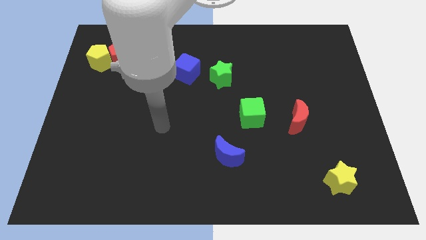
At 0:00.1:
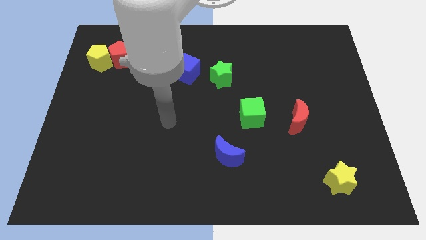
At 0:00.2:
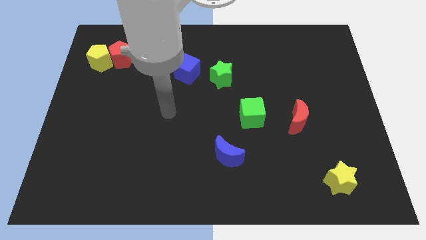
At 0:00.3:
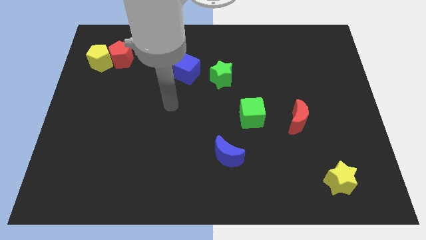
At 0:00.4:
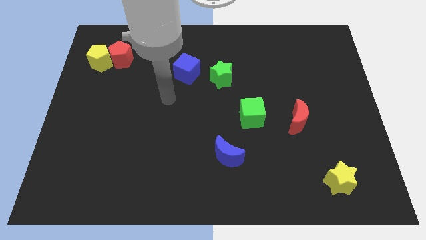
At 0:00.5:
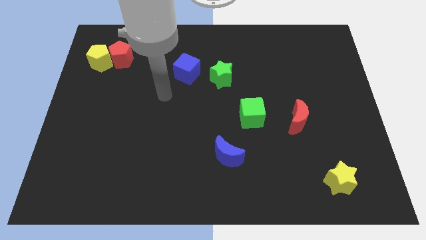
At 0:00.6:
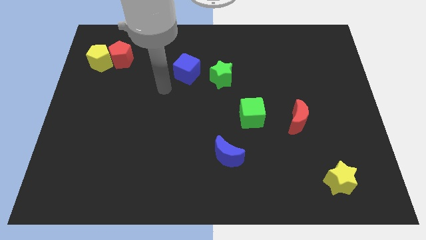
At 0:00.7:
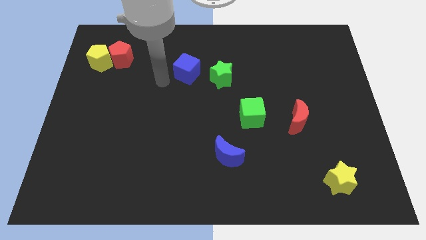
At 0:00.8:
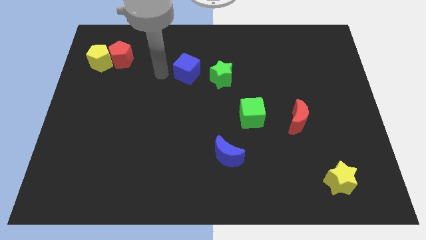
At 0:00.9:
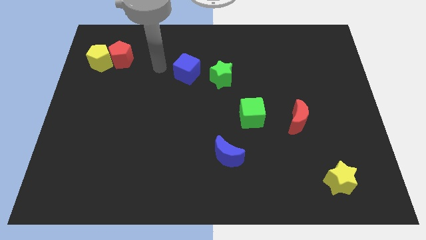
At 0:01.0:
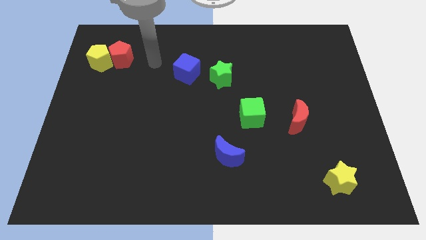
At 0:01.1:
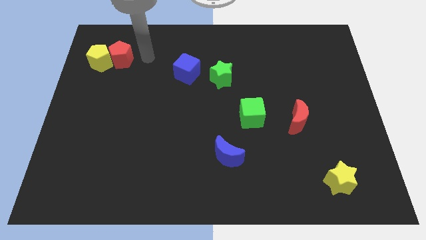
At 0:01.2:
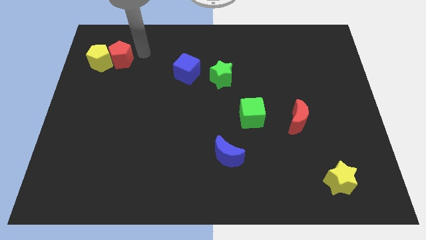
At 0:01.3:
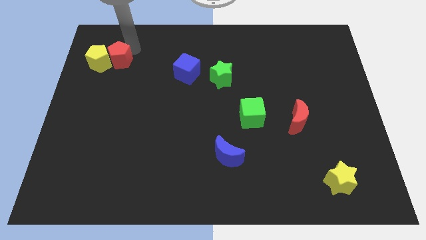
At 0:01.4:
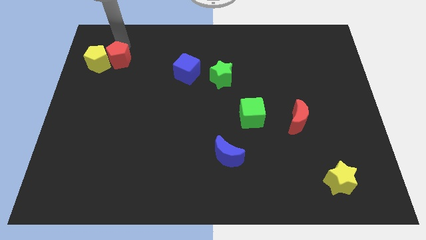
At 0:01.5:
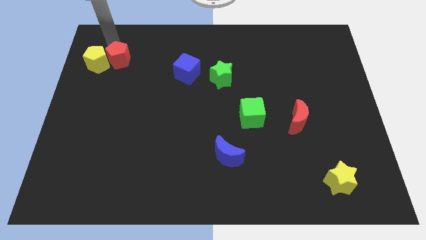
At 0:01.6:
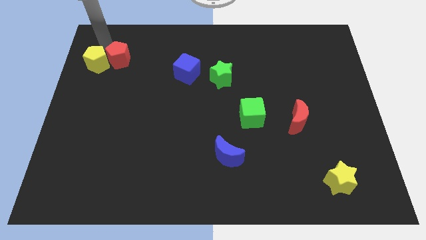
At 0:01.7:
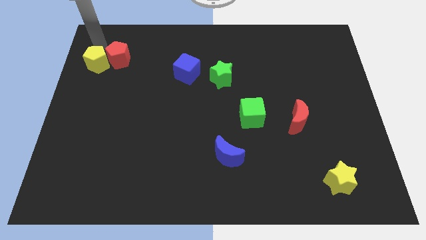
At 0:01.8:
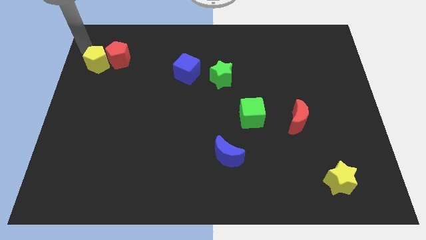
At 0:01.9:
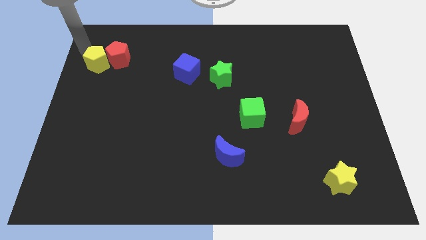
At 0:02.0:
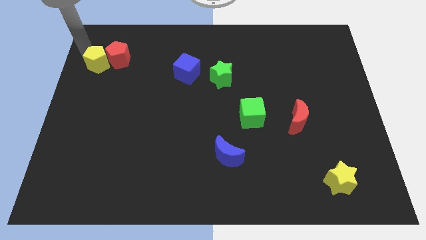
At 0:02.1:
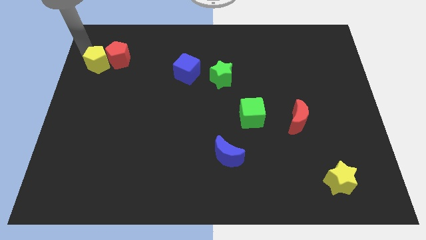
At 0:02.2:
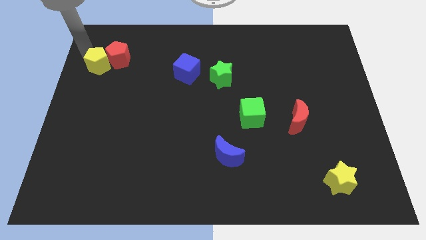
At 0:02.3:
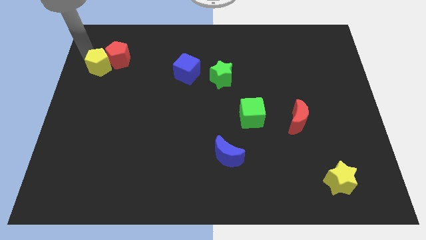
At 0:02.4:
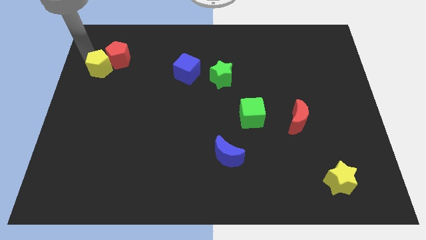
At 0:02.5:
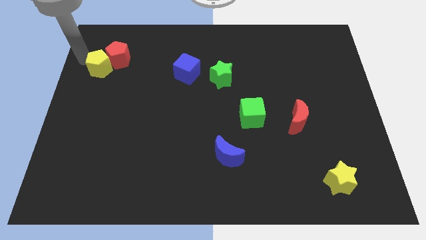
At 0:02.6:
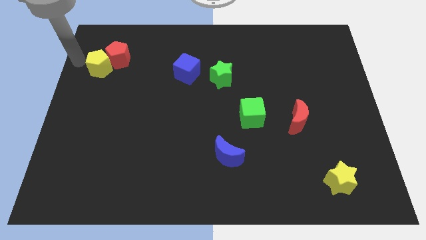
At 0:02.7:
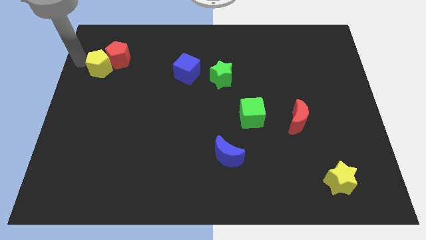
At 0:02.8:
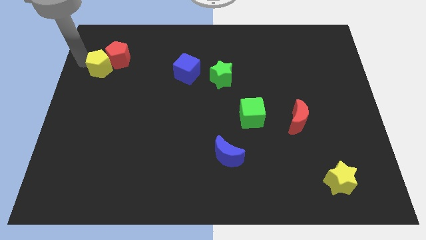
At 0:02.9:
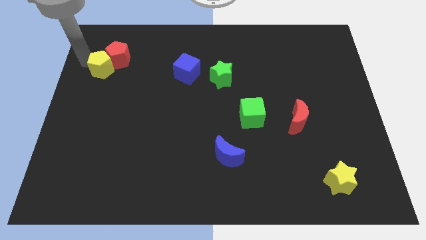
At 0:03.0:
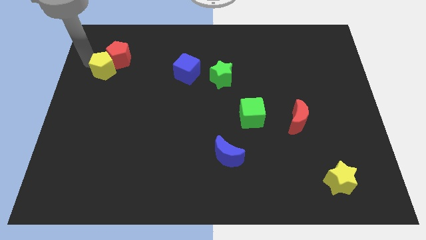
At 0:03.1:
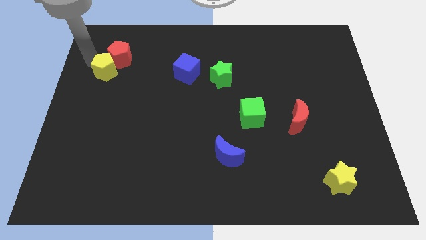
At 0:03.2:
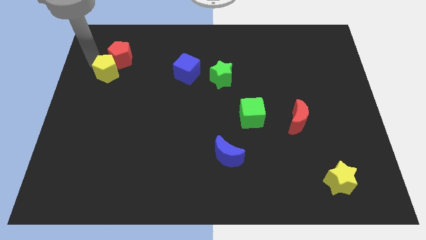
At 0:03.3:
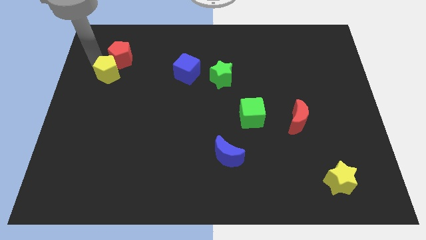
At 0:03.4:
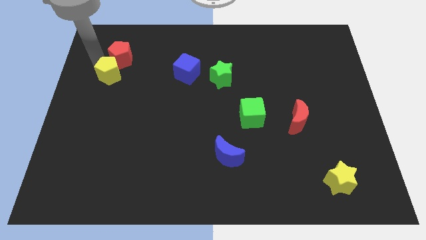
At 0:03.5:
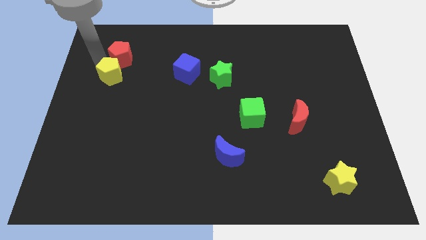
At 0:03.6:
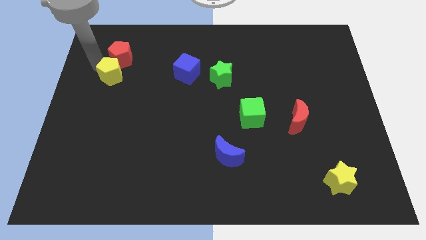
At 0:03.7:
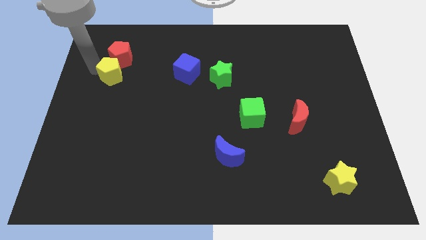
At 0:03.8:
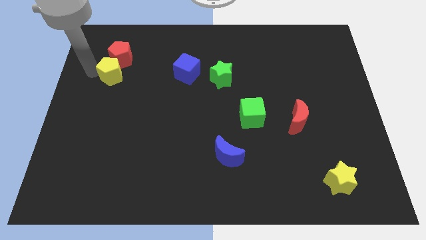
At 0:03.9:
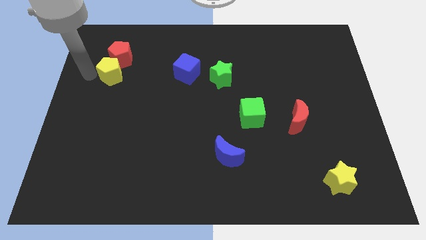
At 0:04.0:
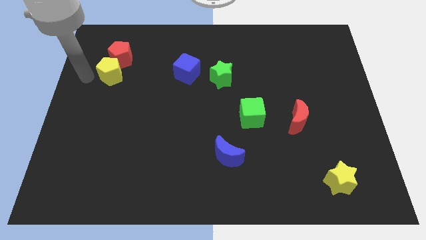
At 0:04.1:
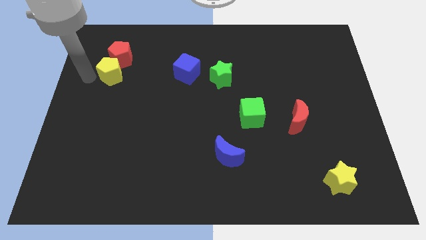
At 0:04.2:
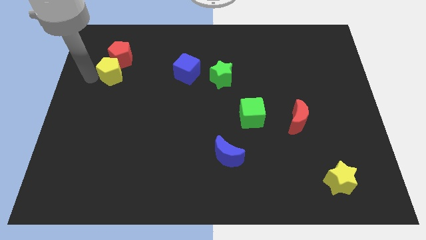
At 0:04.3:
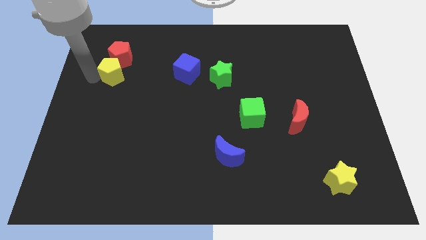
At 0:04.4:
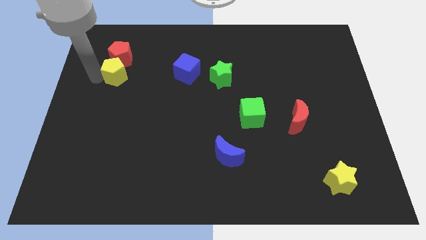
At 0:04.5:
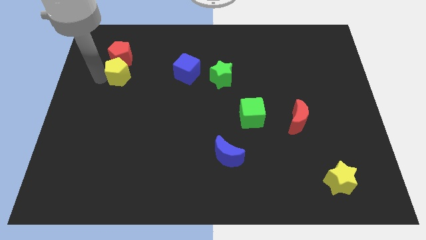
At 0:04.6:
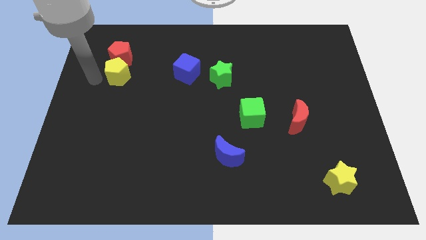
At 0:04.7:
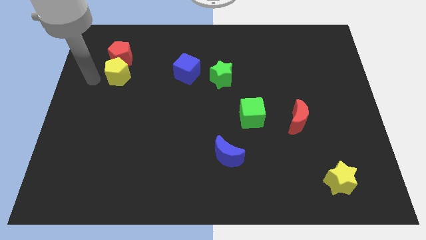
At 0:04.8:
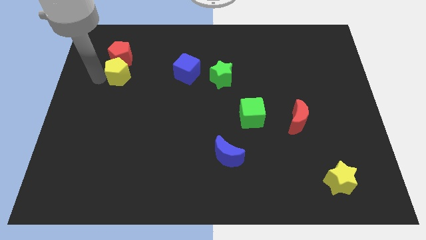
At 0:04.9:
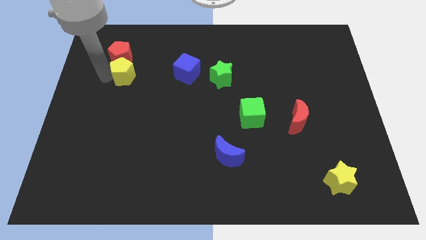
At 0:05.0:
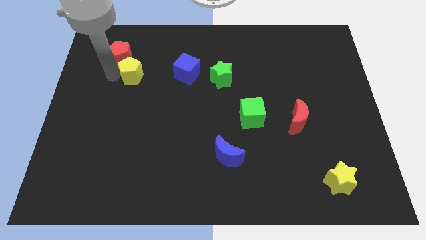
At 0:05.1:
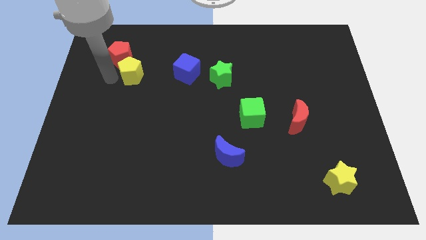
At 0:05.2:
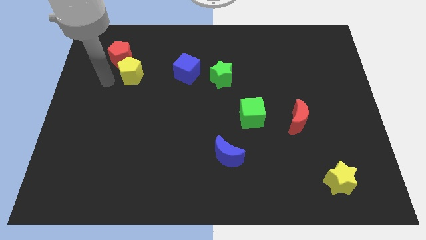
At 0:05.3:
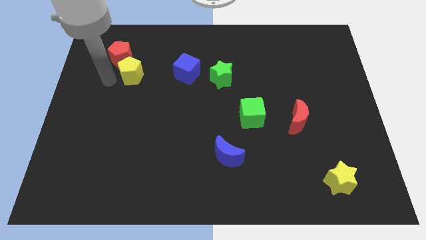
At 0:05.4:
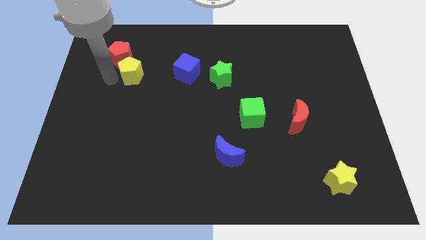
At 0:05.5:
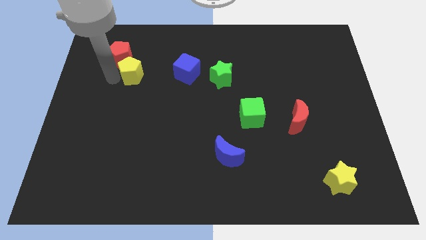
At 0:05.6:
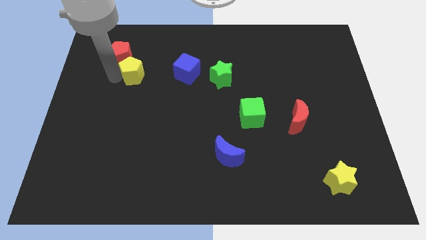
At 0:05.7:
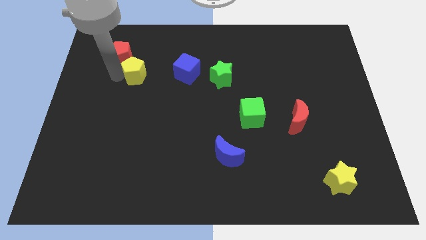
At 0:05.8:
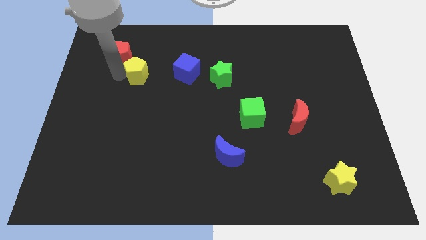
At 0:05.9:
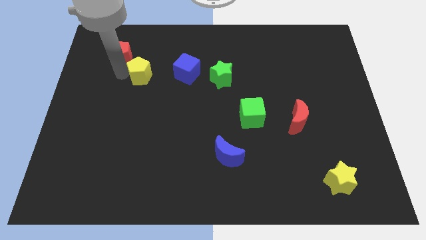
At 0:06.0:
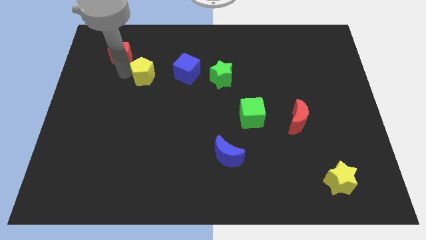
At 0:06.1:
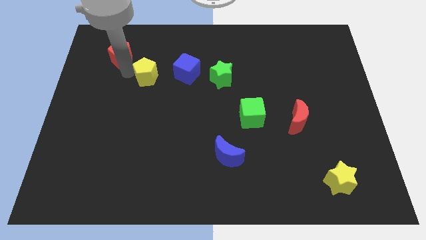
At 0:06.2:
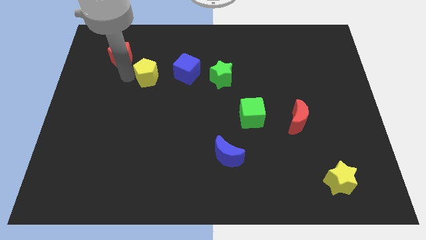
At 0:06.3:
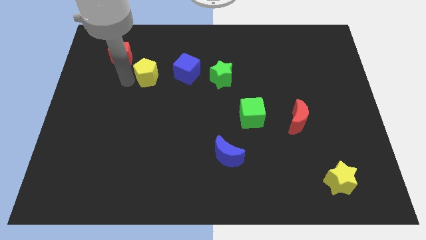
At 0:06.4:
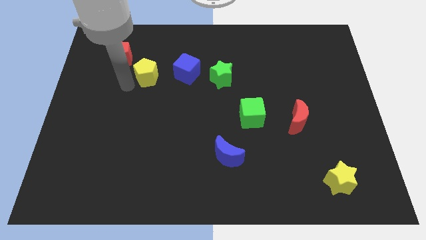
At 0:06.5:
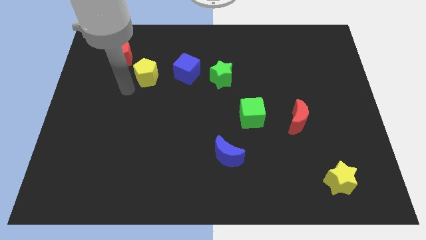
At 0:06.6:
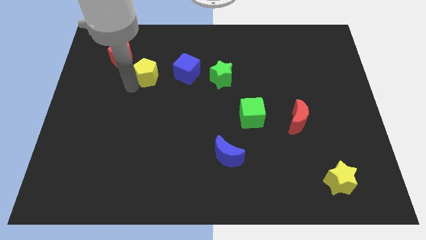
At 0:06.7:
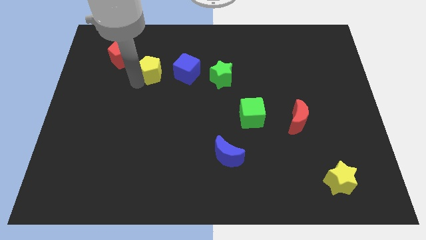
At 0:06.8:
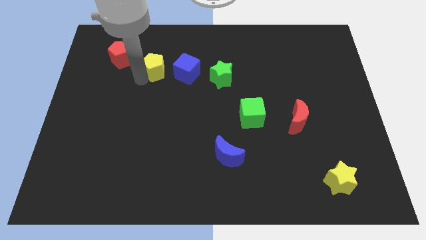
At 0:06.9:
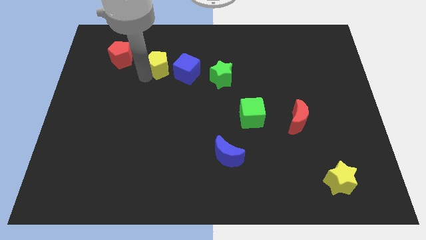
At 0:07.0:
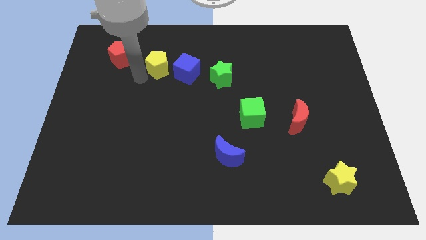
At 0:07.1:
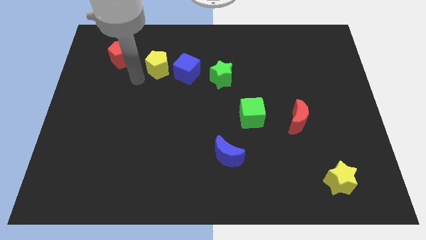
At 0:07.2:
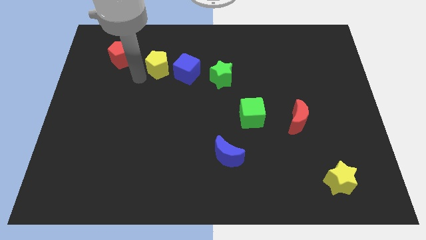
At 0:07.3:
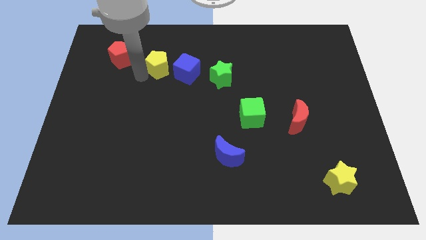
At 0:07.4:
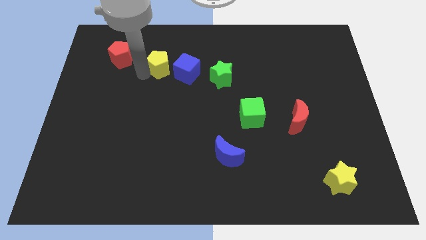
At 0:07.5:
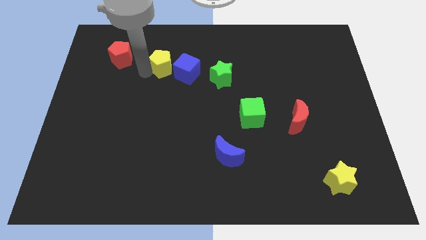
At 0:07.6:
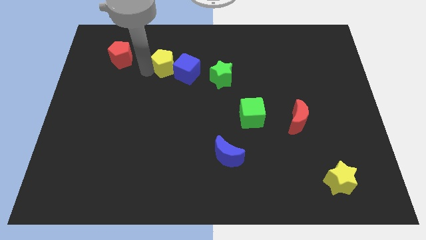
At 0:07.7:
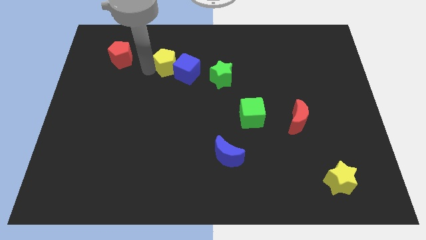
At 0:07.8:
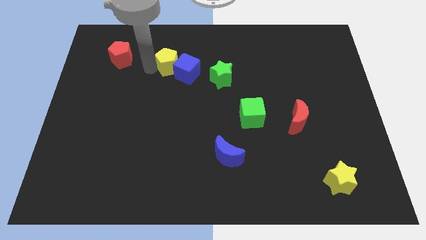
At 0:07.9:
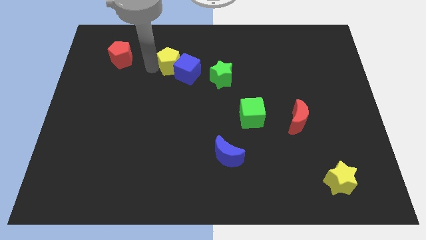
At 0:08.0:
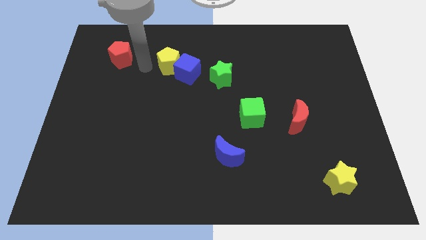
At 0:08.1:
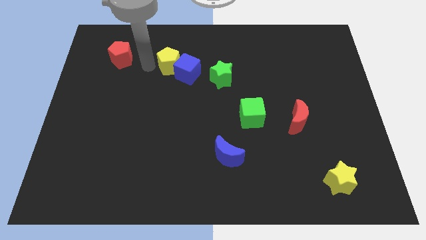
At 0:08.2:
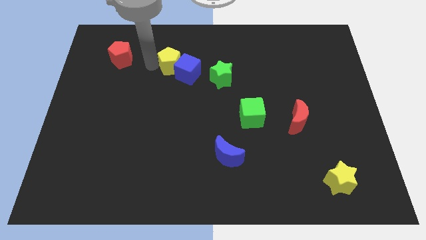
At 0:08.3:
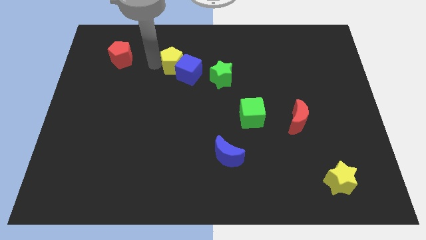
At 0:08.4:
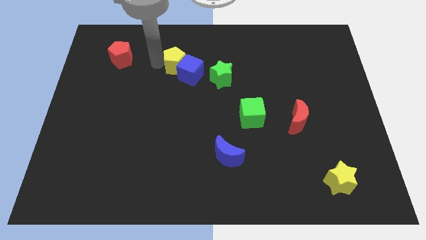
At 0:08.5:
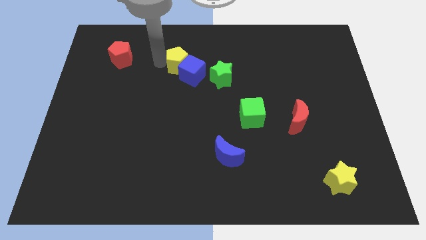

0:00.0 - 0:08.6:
slide the yellow pentagon to the right
